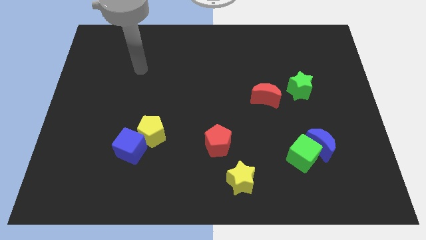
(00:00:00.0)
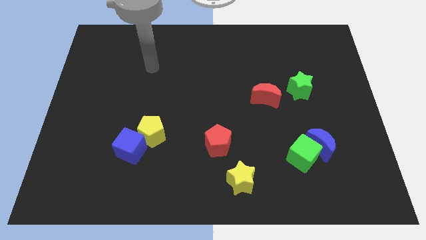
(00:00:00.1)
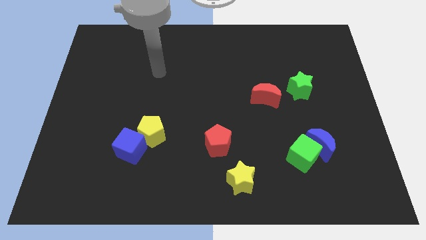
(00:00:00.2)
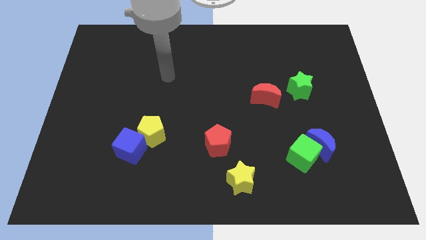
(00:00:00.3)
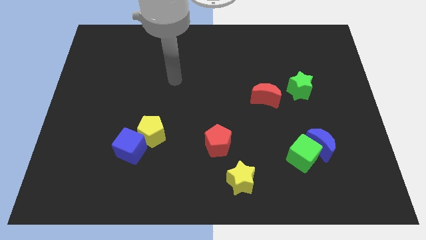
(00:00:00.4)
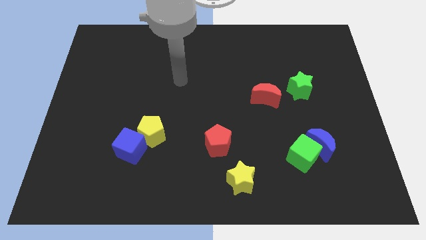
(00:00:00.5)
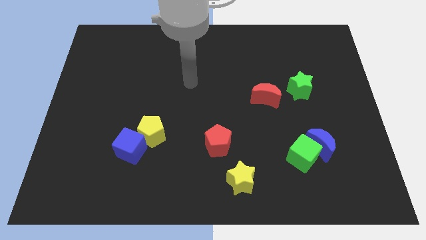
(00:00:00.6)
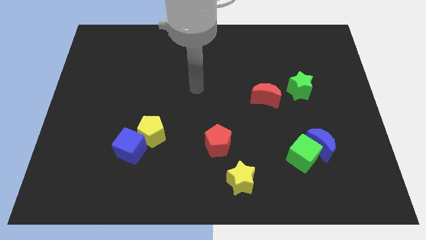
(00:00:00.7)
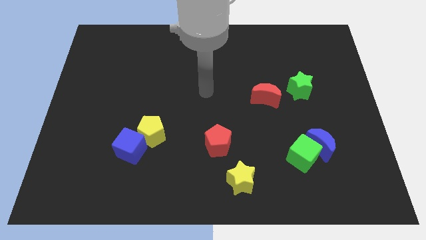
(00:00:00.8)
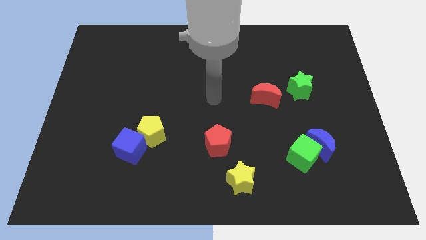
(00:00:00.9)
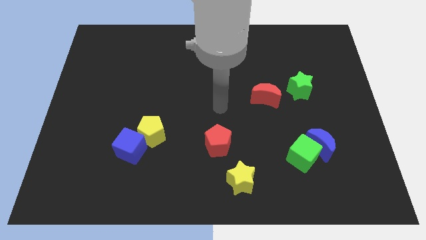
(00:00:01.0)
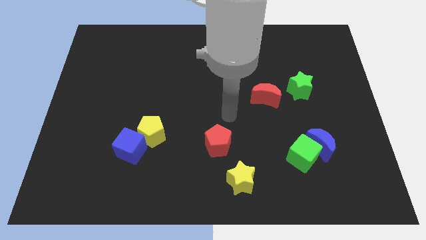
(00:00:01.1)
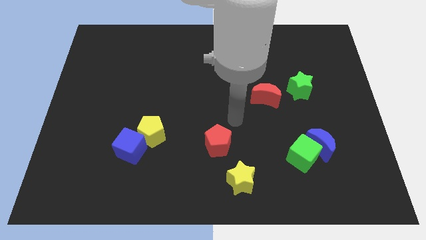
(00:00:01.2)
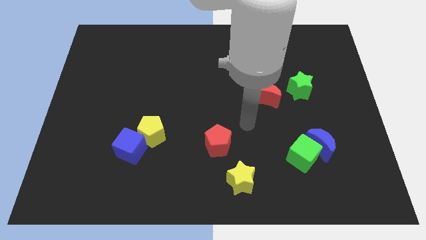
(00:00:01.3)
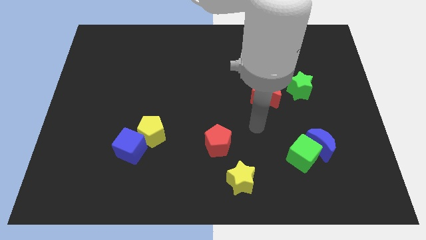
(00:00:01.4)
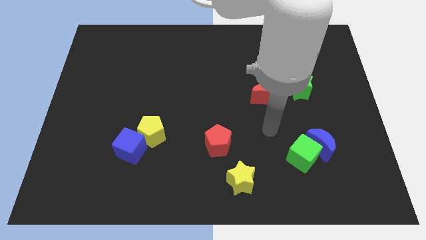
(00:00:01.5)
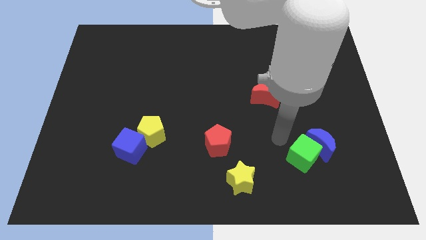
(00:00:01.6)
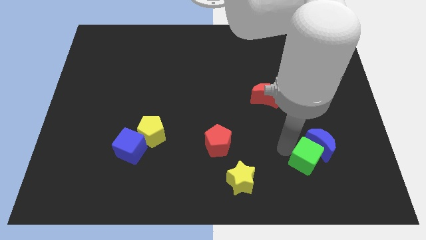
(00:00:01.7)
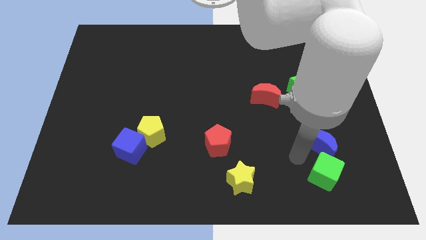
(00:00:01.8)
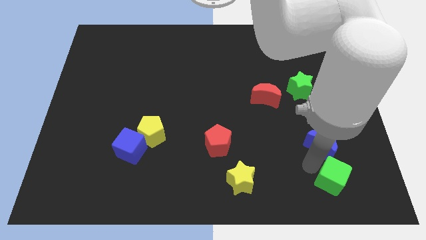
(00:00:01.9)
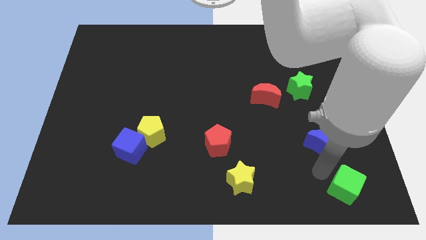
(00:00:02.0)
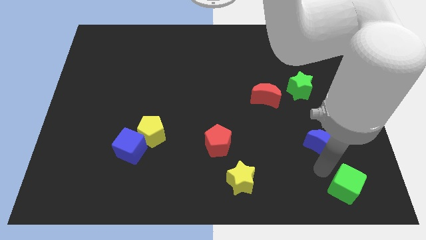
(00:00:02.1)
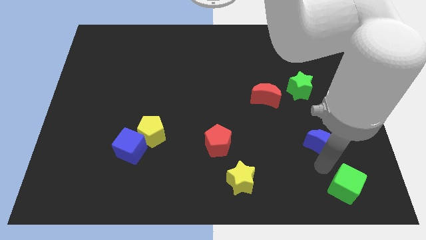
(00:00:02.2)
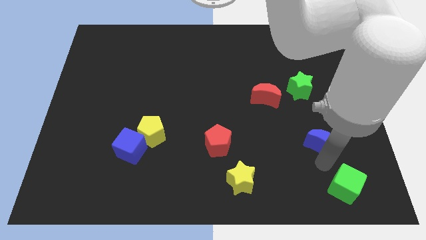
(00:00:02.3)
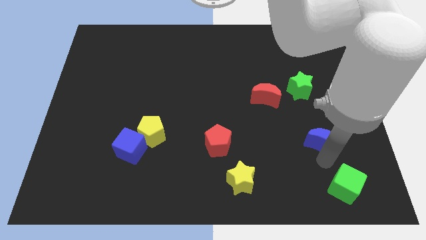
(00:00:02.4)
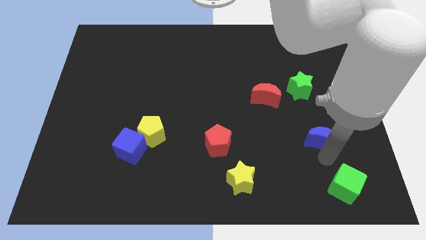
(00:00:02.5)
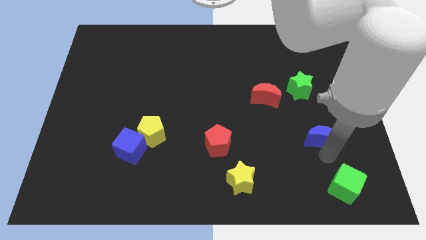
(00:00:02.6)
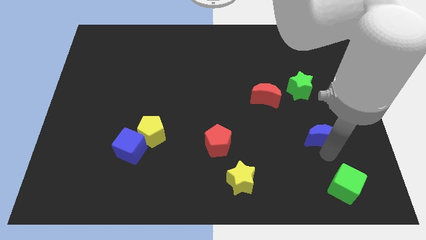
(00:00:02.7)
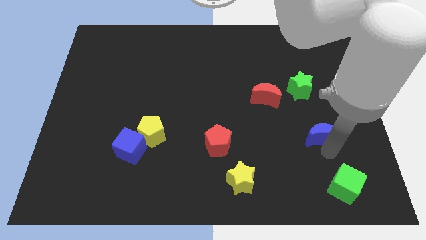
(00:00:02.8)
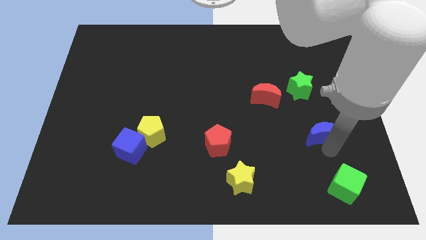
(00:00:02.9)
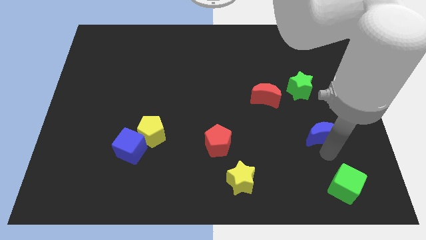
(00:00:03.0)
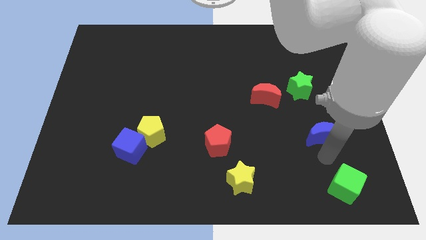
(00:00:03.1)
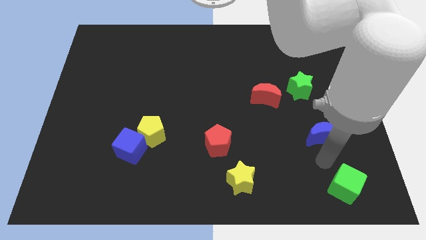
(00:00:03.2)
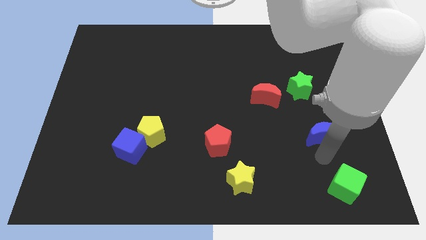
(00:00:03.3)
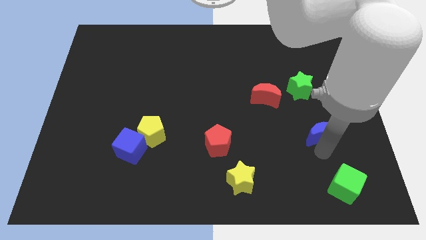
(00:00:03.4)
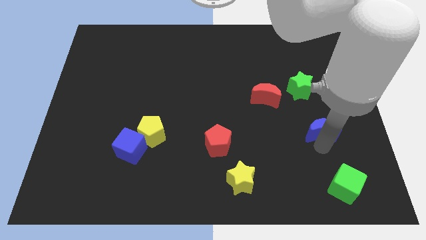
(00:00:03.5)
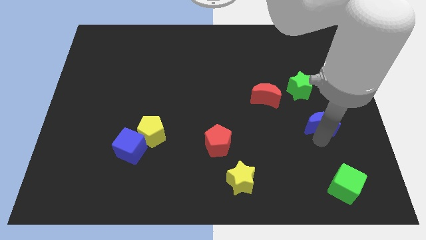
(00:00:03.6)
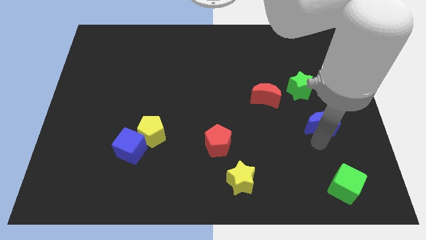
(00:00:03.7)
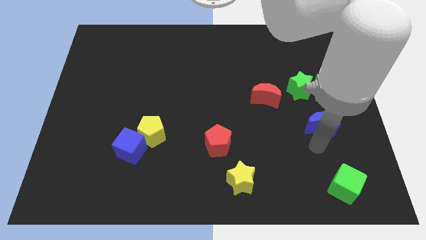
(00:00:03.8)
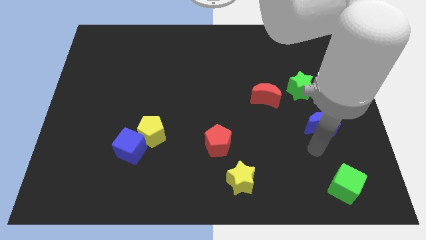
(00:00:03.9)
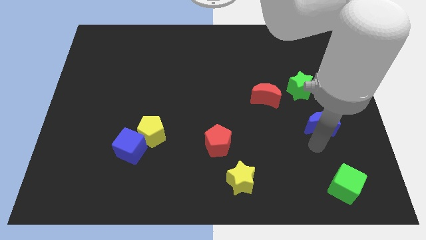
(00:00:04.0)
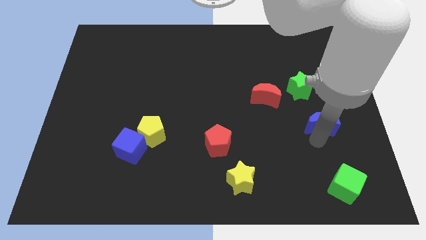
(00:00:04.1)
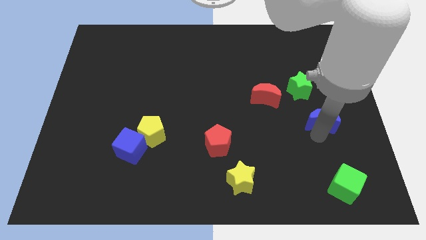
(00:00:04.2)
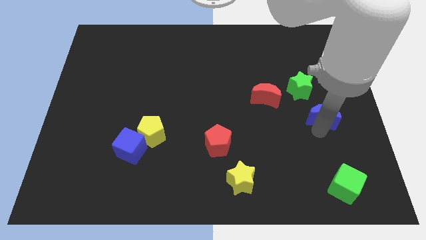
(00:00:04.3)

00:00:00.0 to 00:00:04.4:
slightly move the blue moon up

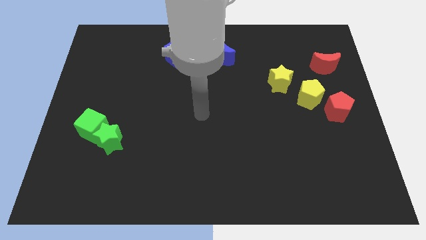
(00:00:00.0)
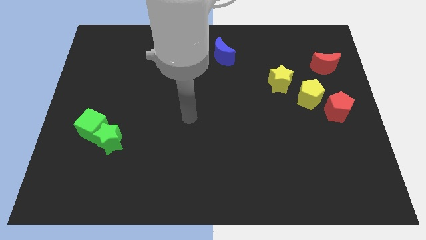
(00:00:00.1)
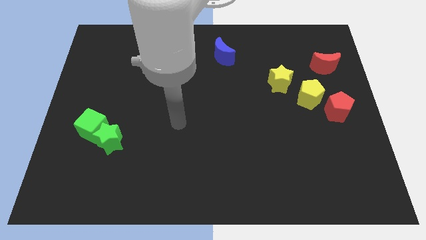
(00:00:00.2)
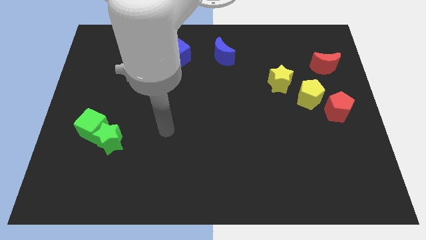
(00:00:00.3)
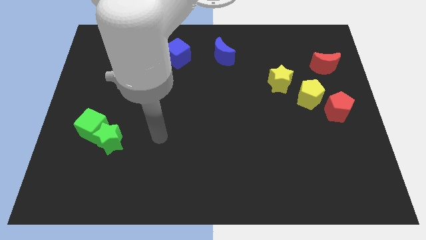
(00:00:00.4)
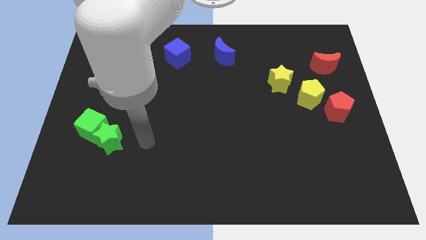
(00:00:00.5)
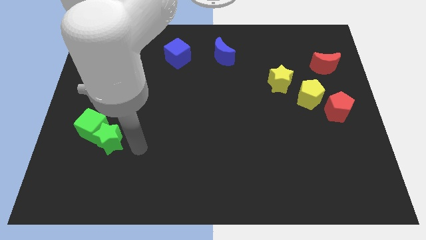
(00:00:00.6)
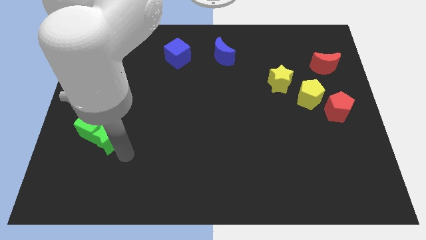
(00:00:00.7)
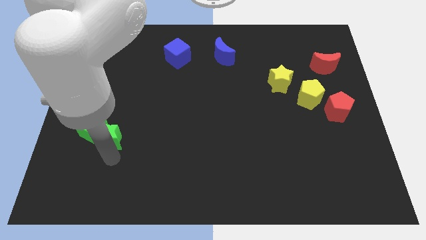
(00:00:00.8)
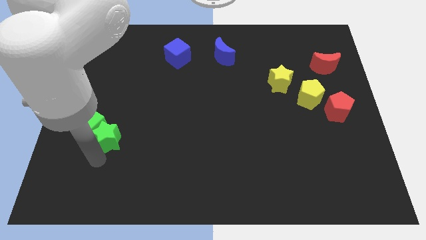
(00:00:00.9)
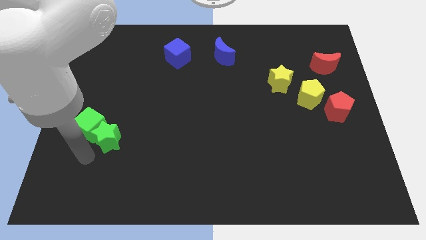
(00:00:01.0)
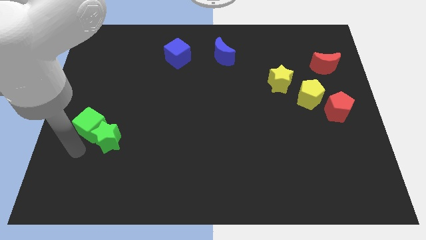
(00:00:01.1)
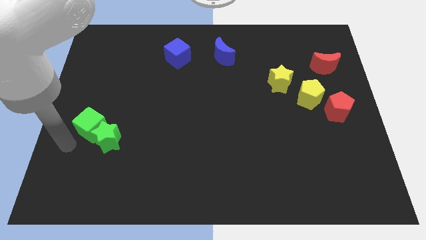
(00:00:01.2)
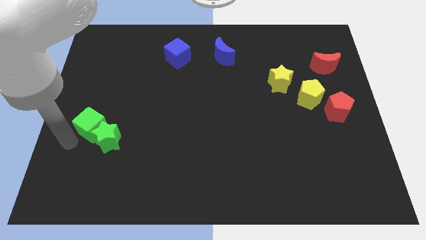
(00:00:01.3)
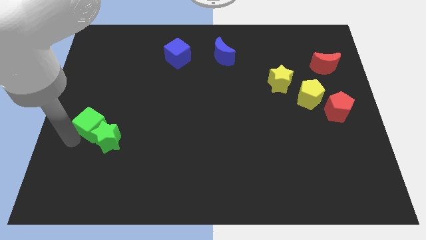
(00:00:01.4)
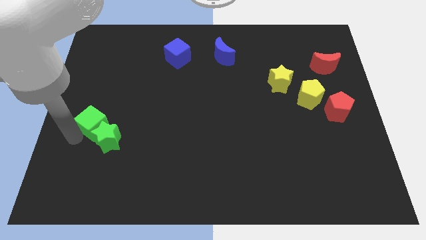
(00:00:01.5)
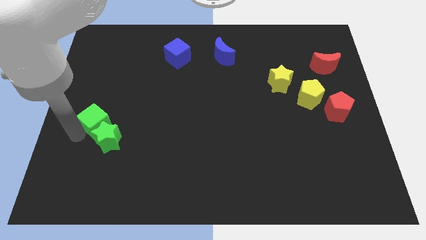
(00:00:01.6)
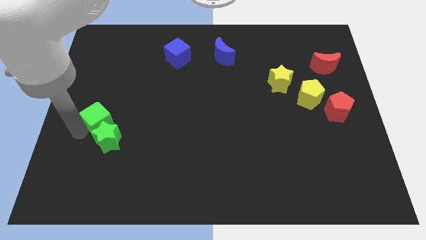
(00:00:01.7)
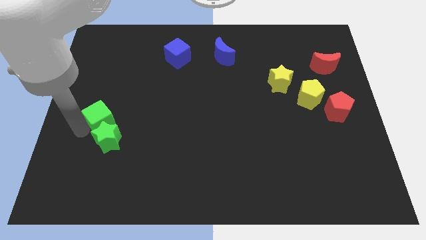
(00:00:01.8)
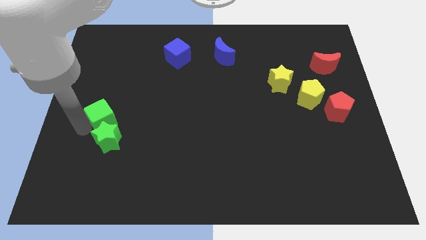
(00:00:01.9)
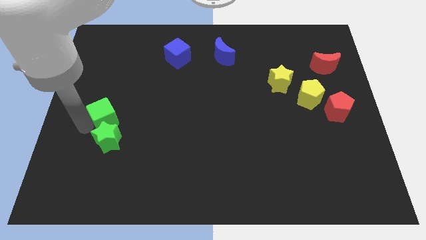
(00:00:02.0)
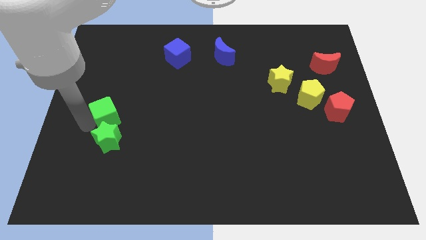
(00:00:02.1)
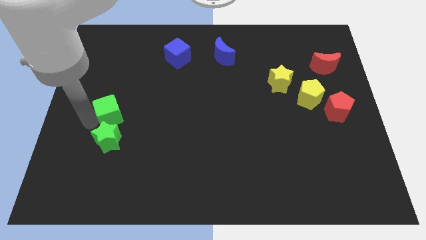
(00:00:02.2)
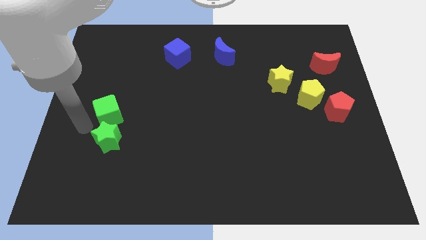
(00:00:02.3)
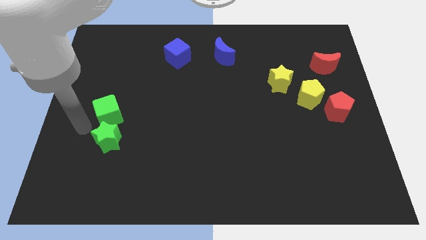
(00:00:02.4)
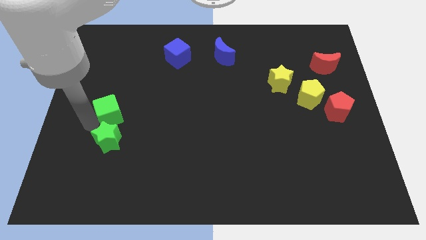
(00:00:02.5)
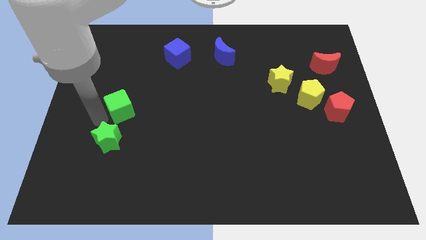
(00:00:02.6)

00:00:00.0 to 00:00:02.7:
push the green cube diagonally upwards and to the right a little bit

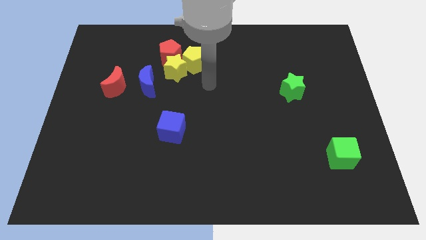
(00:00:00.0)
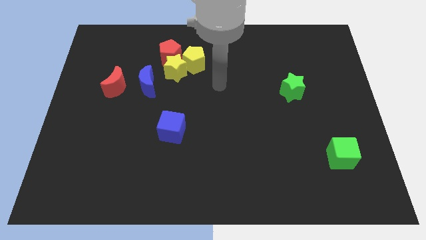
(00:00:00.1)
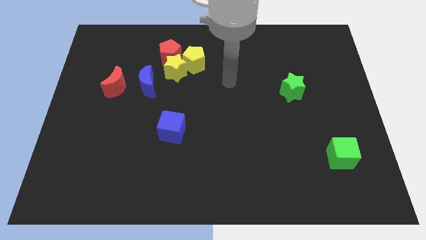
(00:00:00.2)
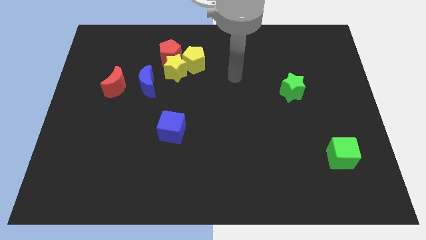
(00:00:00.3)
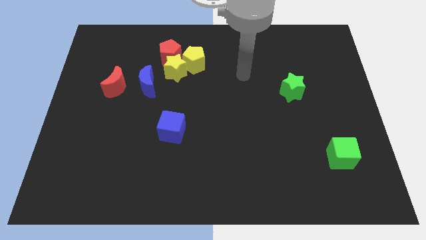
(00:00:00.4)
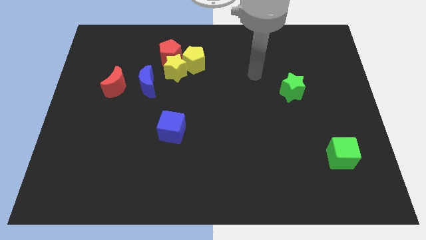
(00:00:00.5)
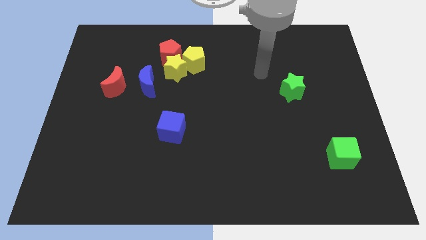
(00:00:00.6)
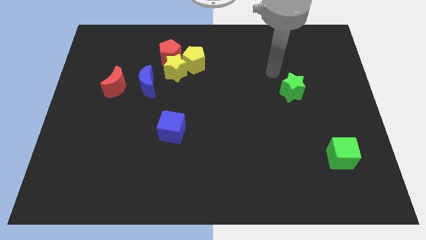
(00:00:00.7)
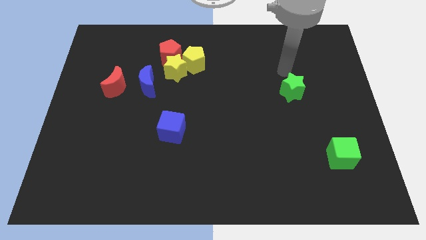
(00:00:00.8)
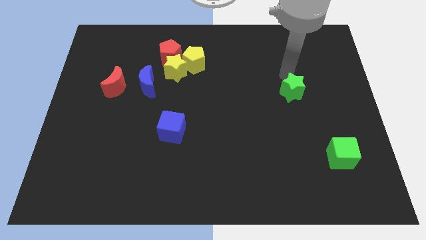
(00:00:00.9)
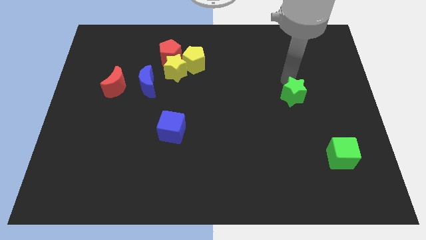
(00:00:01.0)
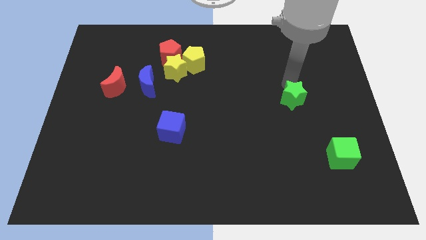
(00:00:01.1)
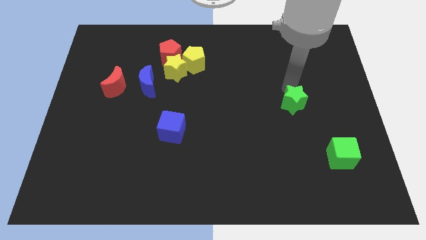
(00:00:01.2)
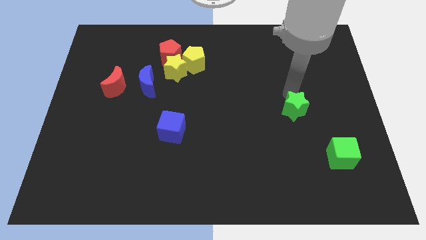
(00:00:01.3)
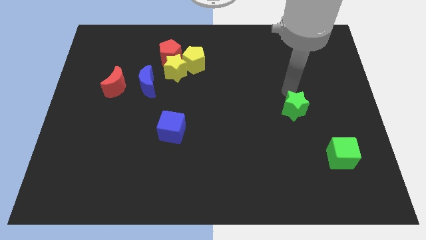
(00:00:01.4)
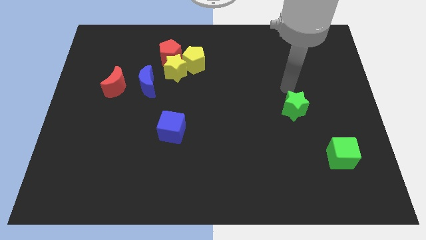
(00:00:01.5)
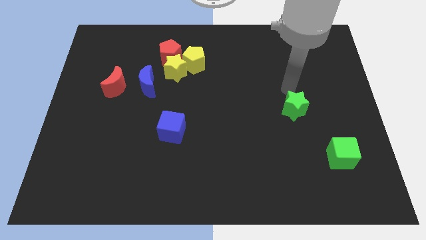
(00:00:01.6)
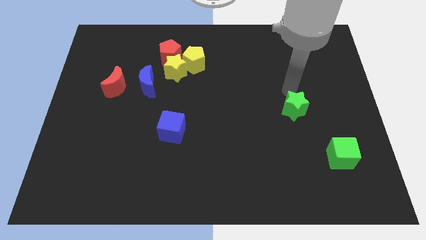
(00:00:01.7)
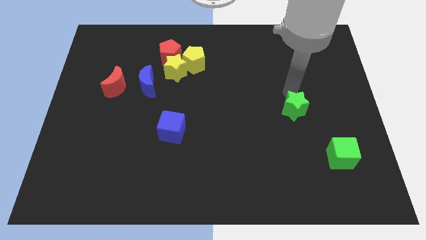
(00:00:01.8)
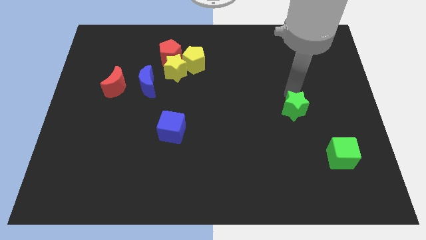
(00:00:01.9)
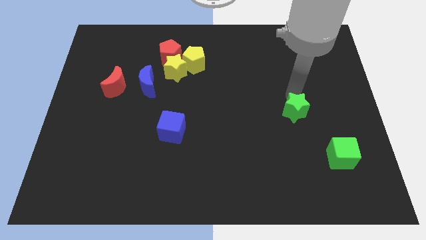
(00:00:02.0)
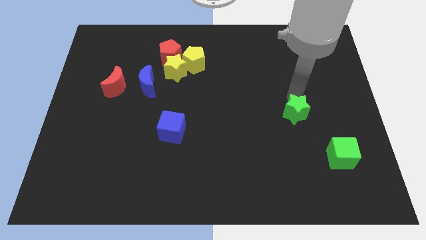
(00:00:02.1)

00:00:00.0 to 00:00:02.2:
move the green star downwards a little bit
